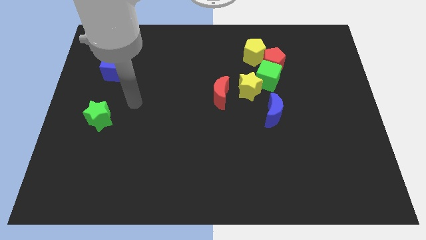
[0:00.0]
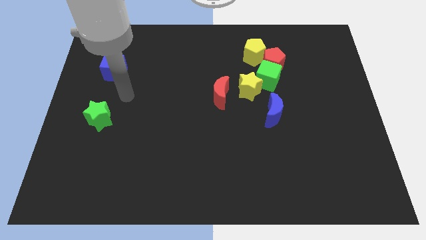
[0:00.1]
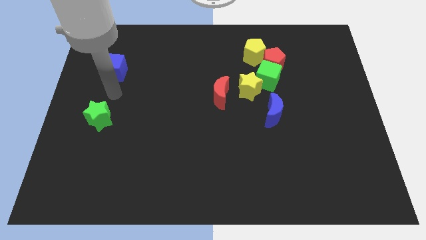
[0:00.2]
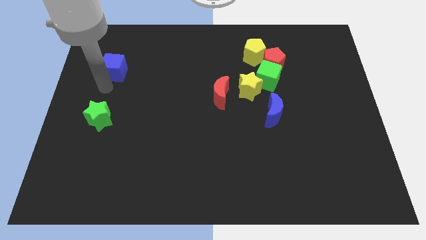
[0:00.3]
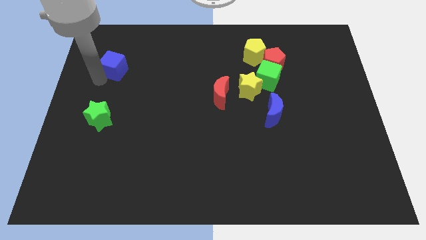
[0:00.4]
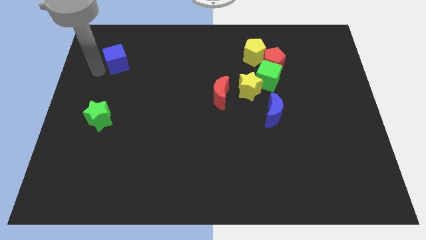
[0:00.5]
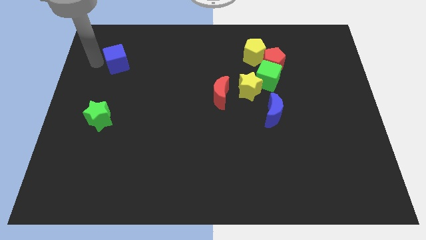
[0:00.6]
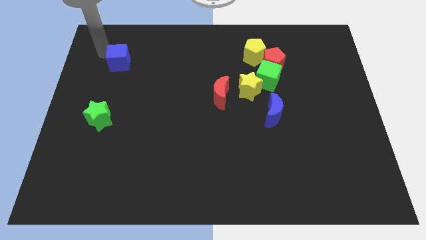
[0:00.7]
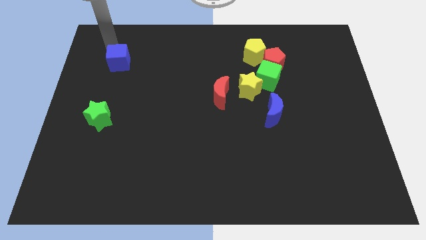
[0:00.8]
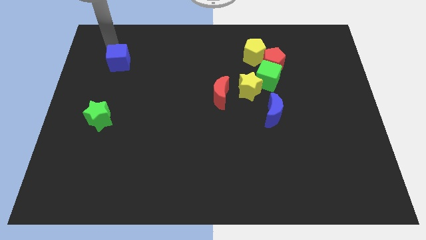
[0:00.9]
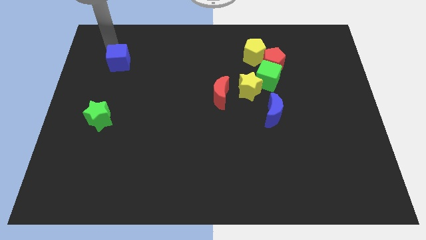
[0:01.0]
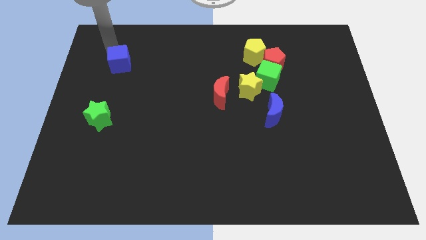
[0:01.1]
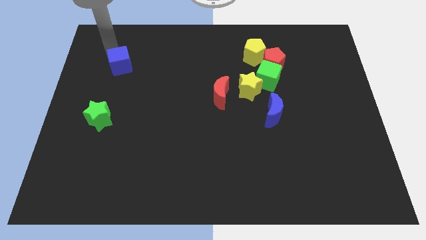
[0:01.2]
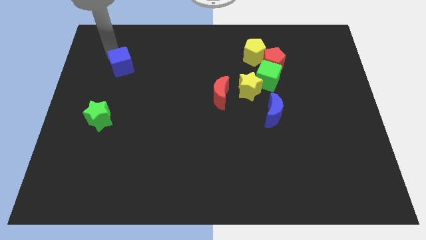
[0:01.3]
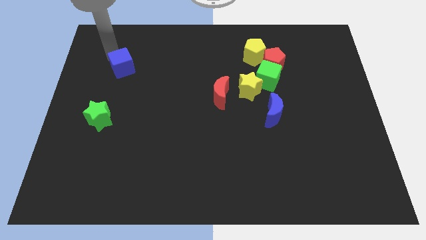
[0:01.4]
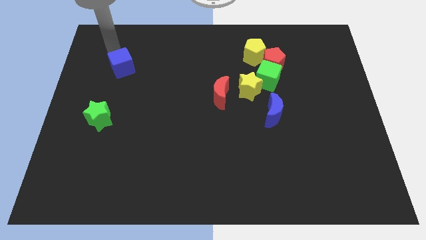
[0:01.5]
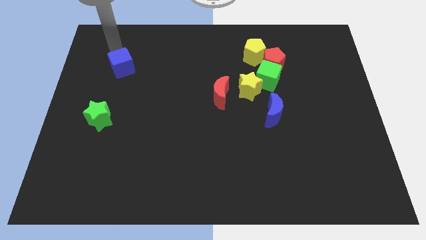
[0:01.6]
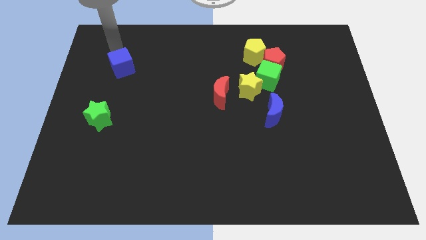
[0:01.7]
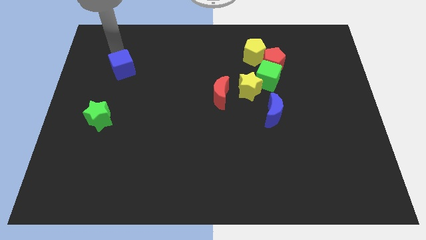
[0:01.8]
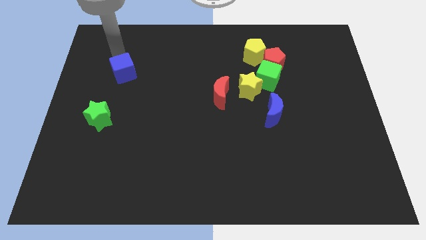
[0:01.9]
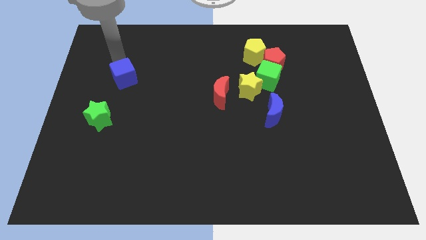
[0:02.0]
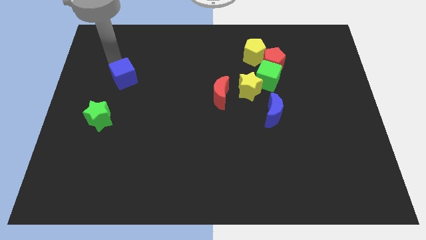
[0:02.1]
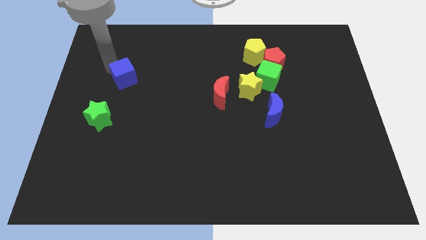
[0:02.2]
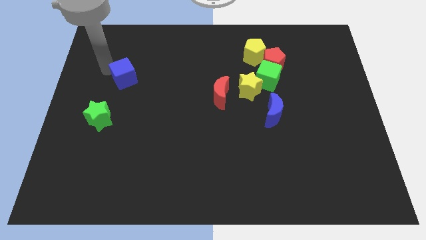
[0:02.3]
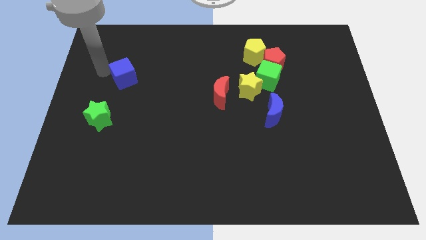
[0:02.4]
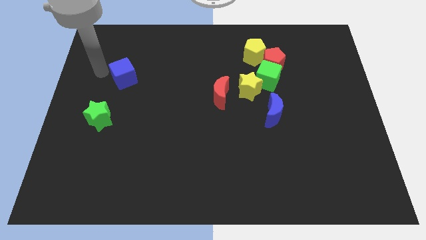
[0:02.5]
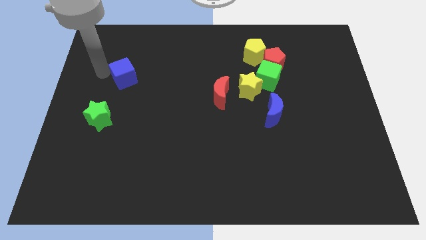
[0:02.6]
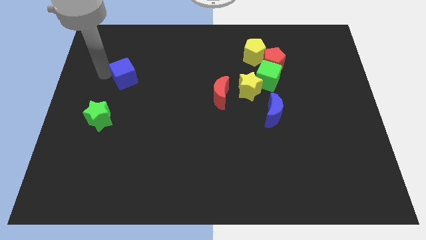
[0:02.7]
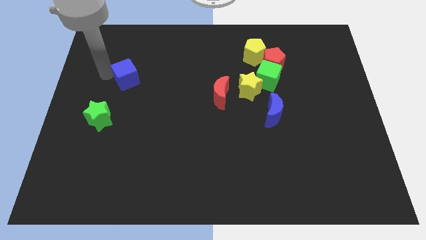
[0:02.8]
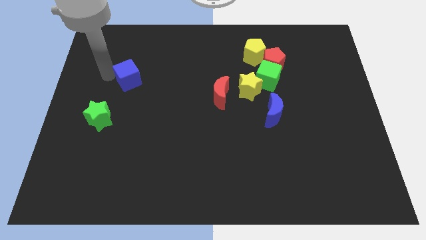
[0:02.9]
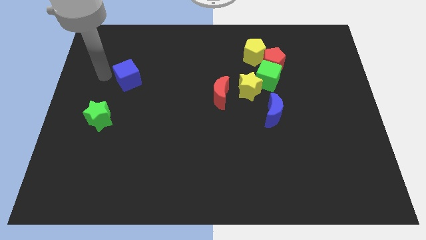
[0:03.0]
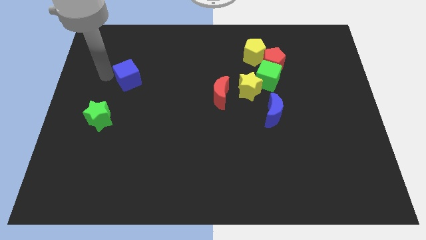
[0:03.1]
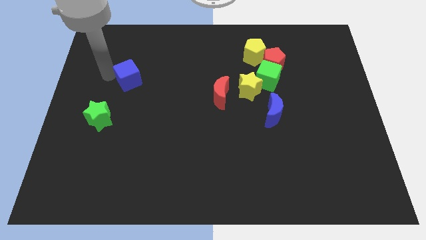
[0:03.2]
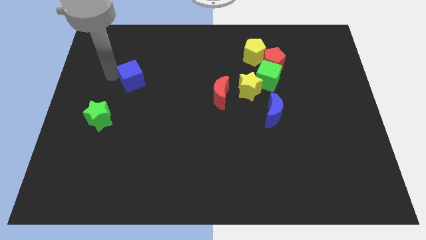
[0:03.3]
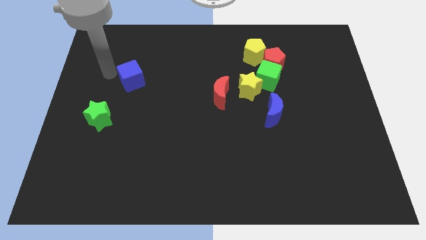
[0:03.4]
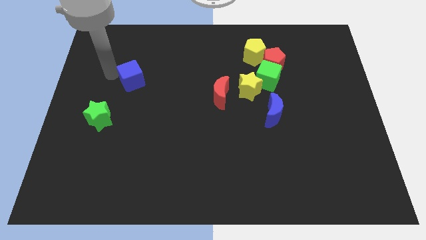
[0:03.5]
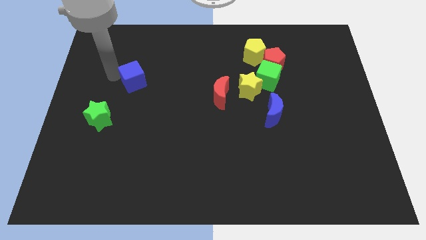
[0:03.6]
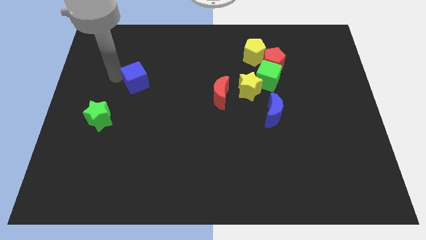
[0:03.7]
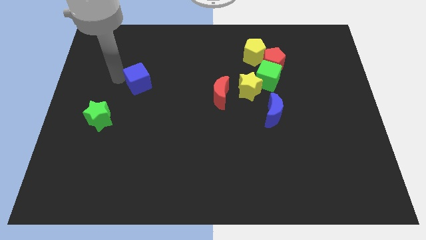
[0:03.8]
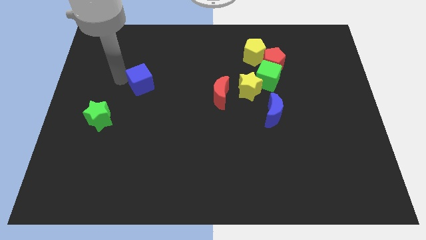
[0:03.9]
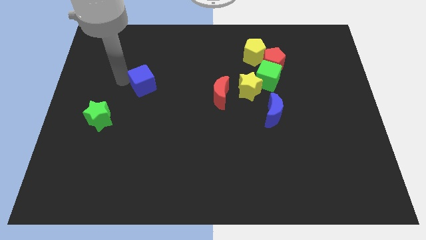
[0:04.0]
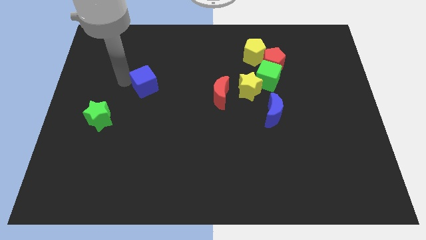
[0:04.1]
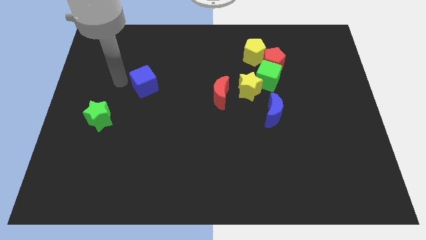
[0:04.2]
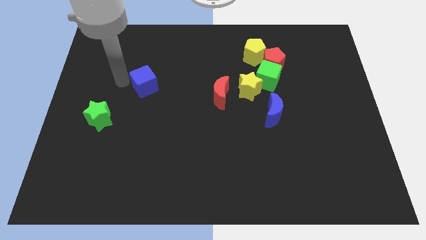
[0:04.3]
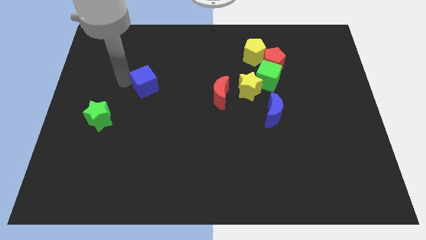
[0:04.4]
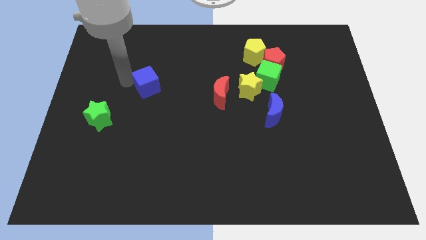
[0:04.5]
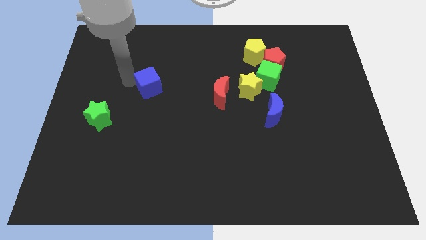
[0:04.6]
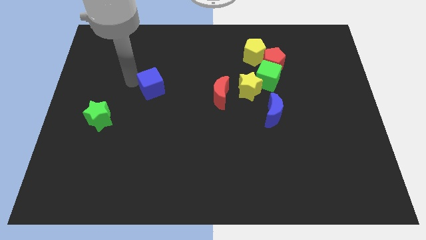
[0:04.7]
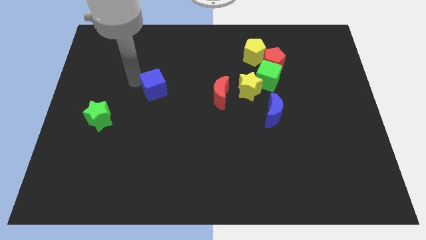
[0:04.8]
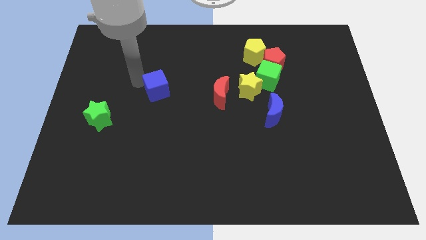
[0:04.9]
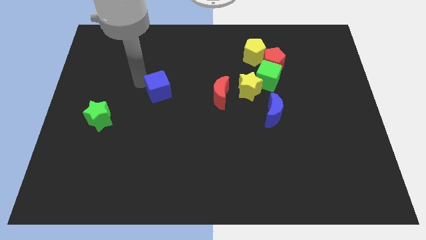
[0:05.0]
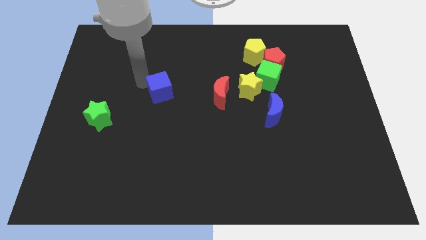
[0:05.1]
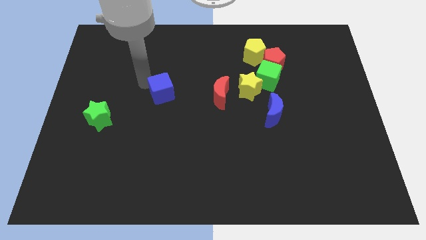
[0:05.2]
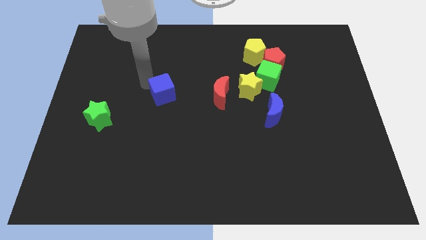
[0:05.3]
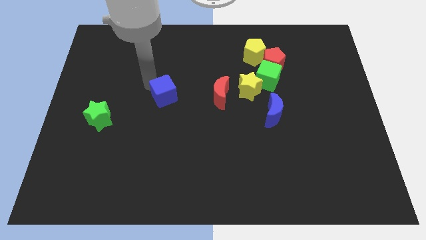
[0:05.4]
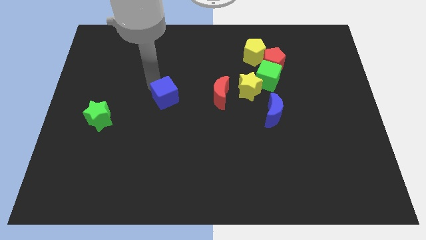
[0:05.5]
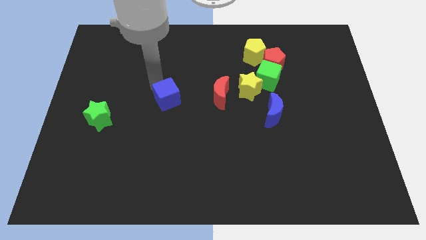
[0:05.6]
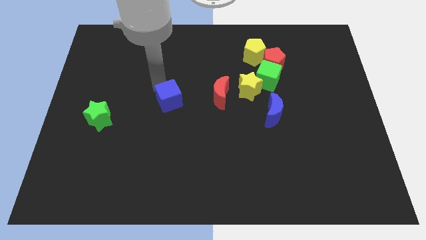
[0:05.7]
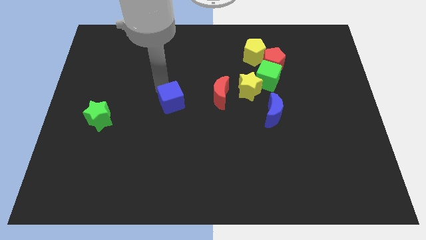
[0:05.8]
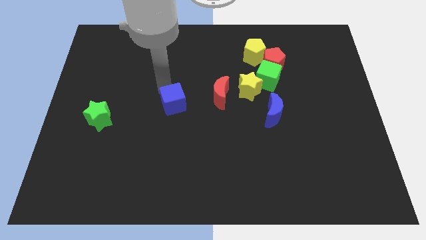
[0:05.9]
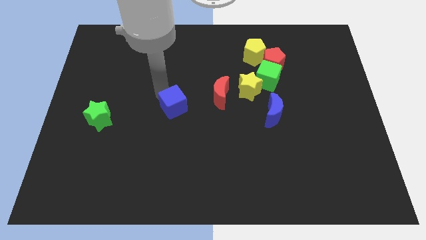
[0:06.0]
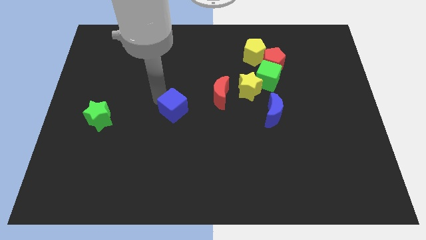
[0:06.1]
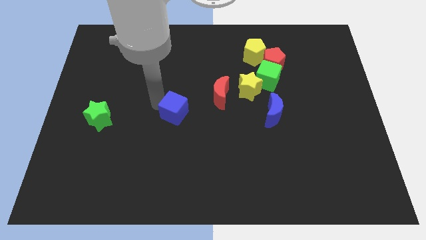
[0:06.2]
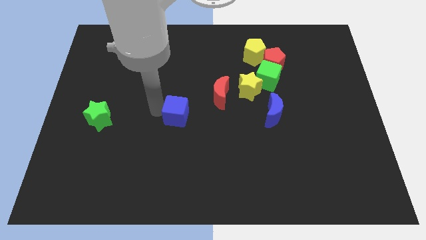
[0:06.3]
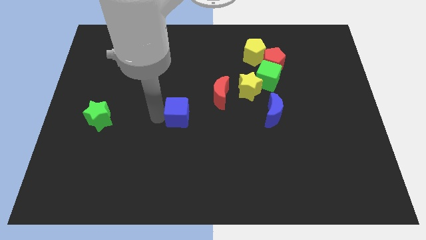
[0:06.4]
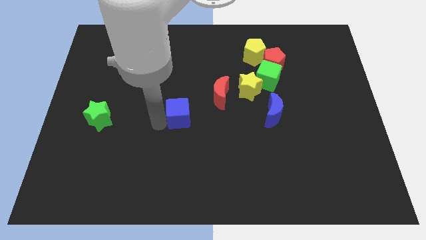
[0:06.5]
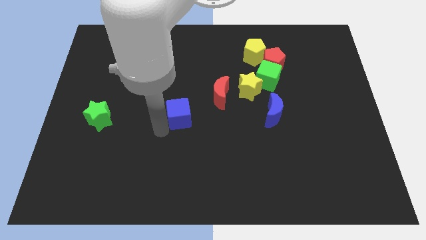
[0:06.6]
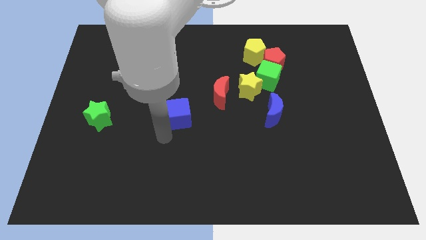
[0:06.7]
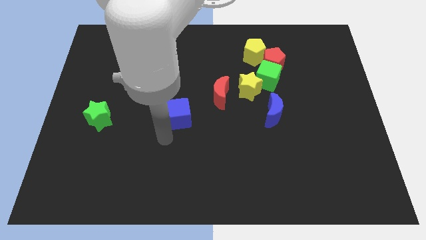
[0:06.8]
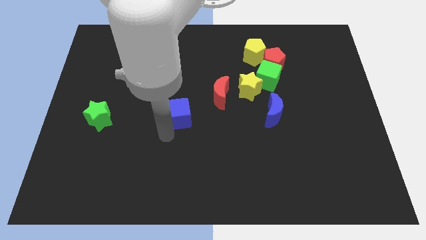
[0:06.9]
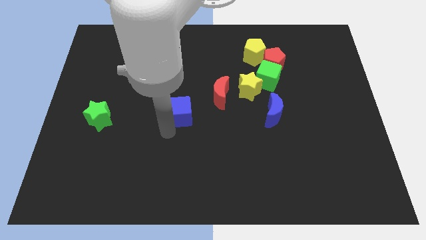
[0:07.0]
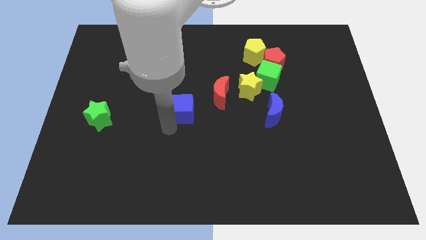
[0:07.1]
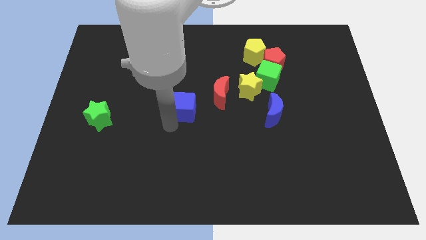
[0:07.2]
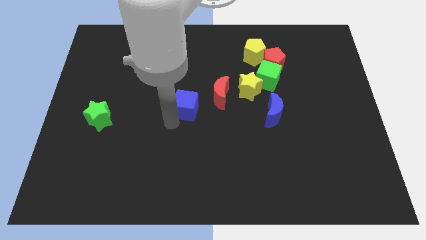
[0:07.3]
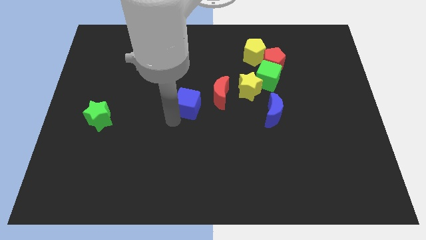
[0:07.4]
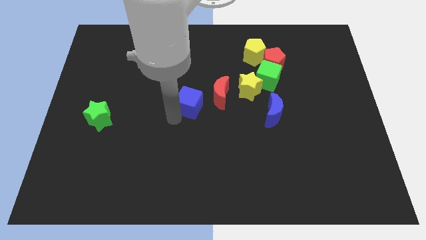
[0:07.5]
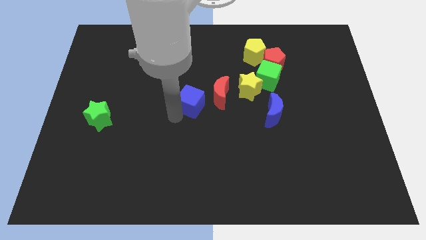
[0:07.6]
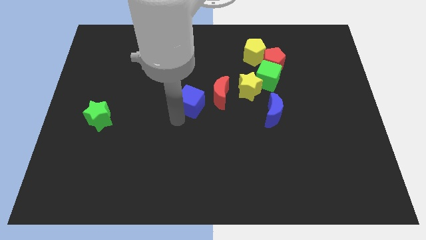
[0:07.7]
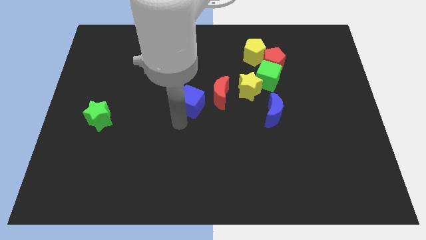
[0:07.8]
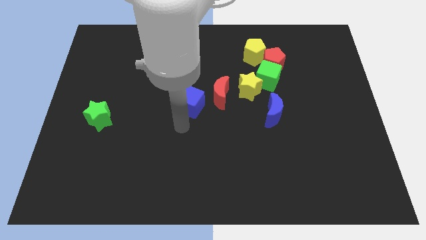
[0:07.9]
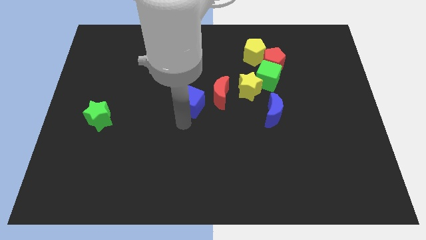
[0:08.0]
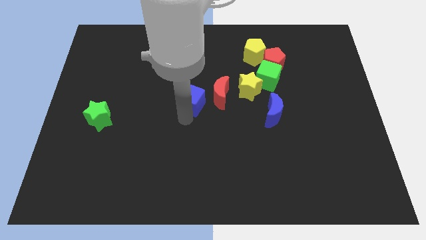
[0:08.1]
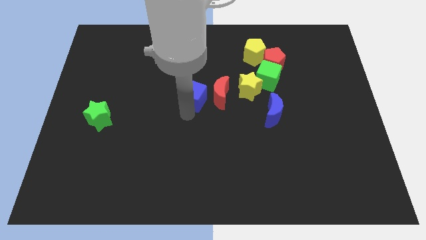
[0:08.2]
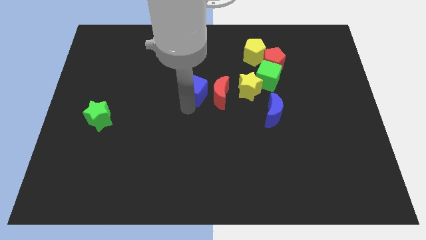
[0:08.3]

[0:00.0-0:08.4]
push the blue cube towards the red moon
